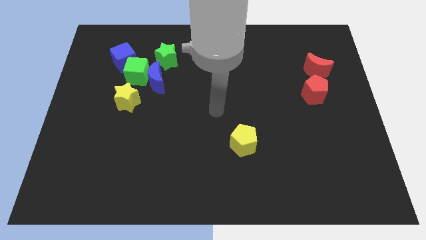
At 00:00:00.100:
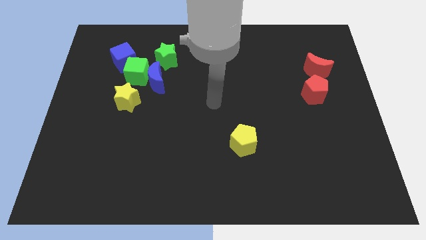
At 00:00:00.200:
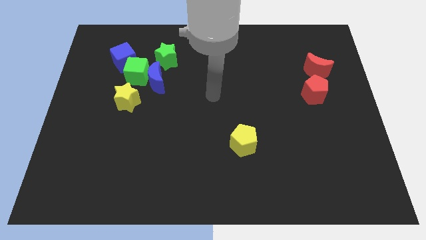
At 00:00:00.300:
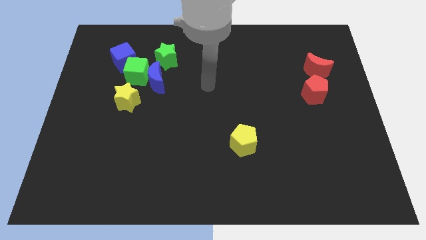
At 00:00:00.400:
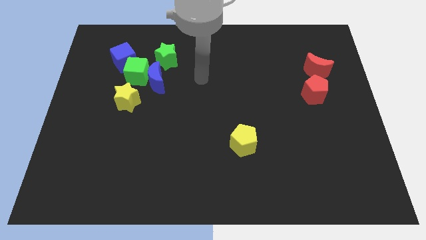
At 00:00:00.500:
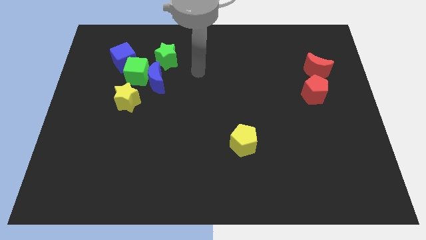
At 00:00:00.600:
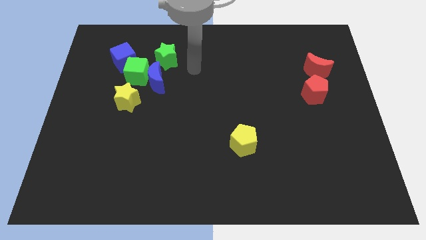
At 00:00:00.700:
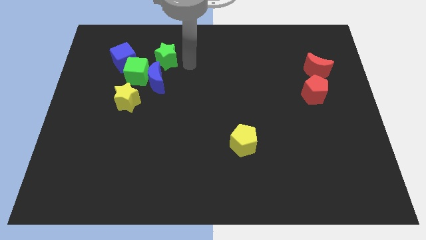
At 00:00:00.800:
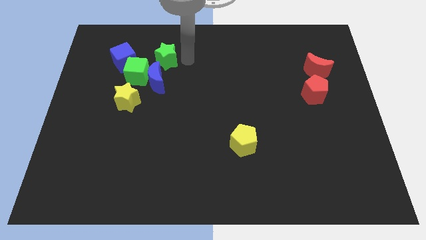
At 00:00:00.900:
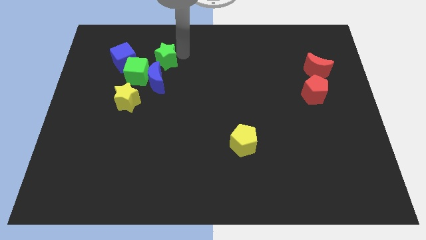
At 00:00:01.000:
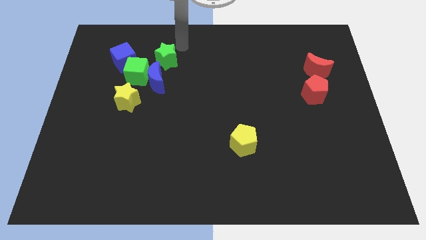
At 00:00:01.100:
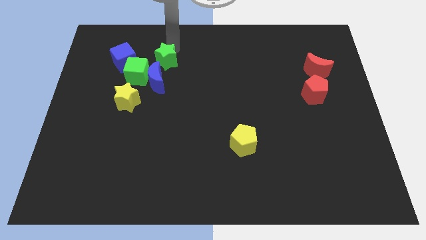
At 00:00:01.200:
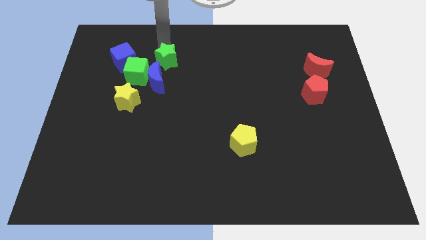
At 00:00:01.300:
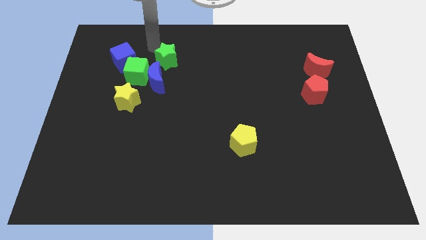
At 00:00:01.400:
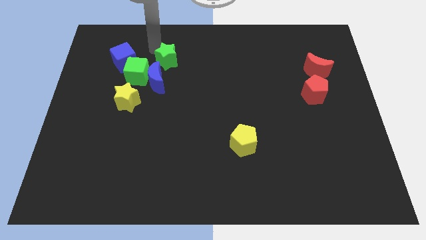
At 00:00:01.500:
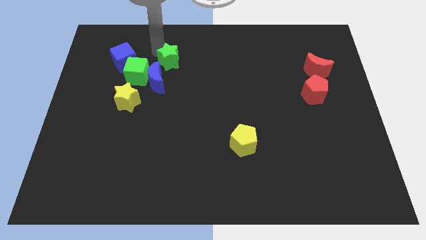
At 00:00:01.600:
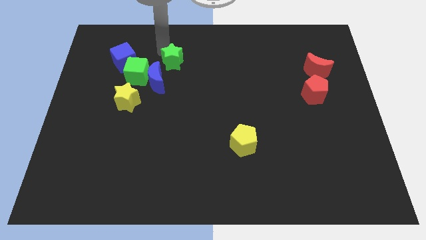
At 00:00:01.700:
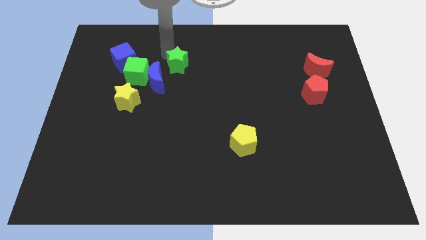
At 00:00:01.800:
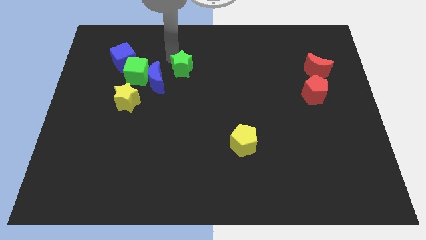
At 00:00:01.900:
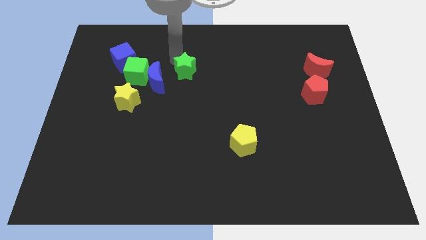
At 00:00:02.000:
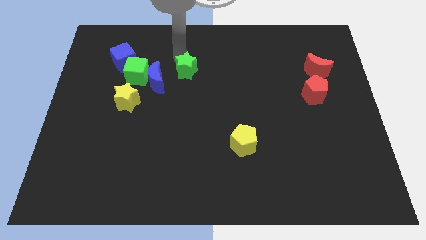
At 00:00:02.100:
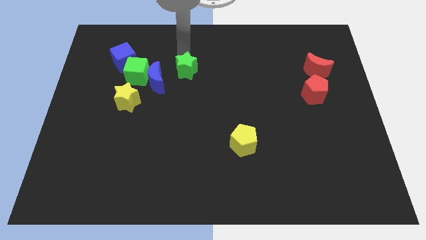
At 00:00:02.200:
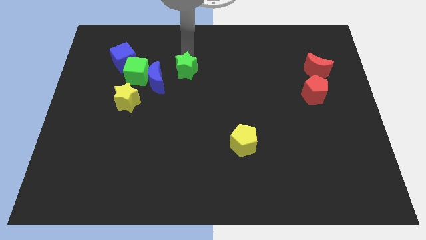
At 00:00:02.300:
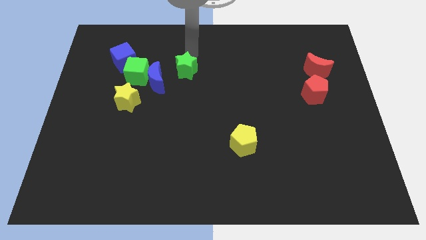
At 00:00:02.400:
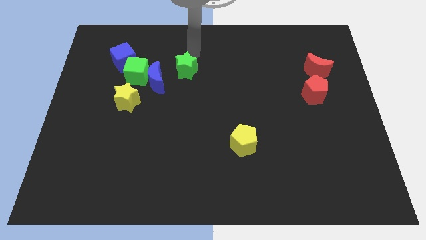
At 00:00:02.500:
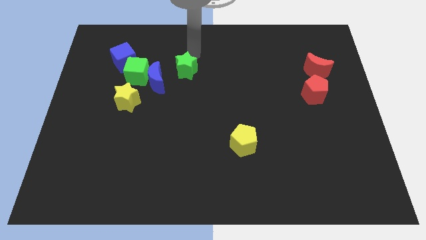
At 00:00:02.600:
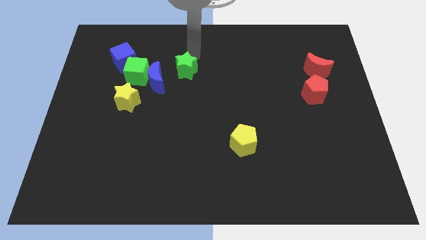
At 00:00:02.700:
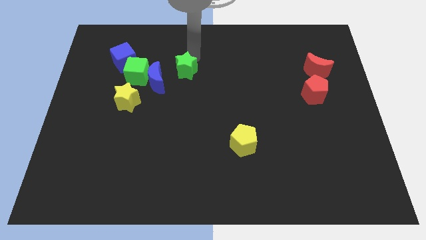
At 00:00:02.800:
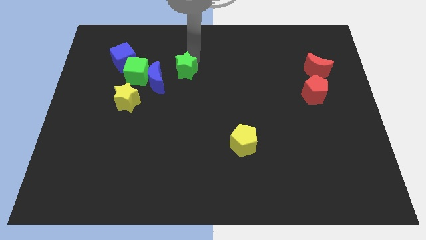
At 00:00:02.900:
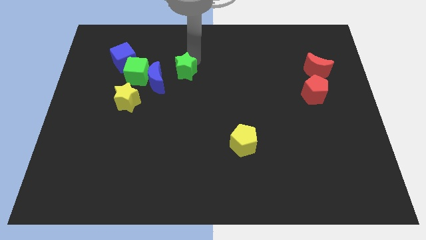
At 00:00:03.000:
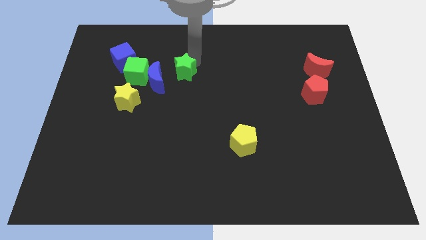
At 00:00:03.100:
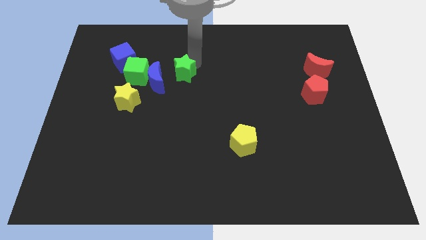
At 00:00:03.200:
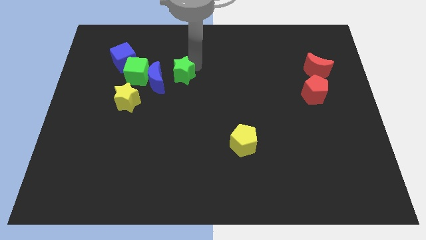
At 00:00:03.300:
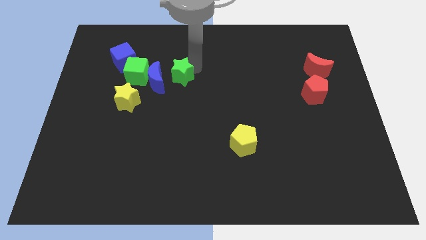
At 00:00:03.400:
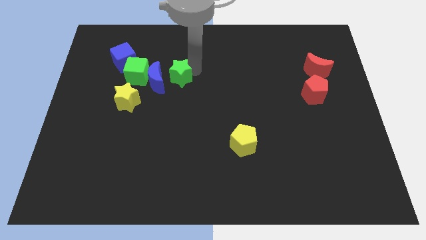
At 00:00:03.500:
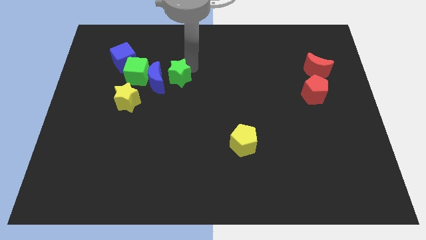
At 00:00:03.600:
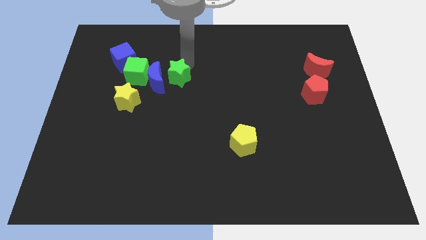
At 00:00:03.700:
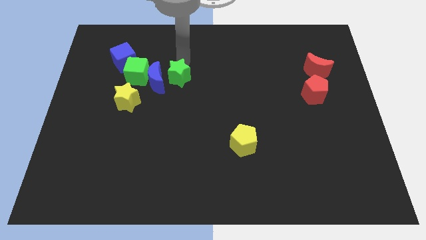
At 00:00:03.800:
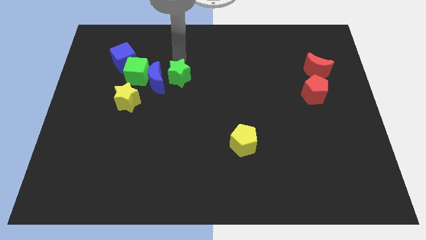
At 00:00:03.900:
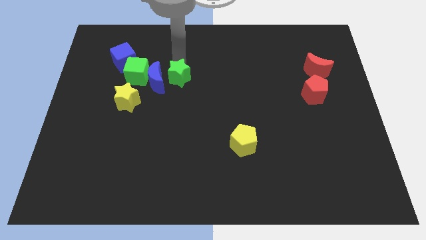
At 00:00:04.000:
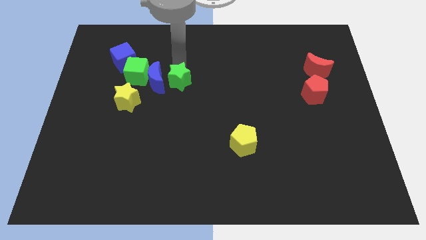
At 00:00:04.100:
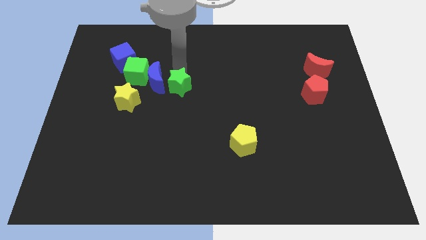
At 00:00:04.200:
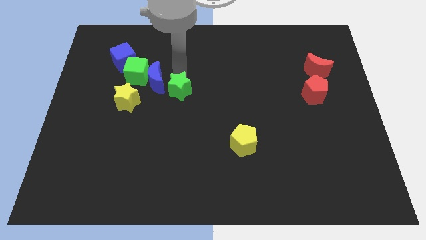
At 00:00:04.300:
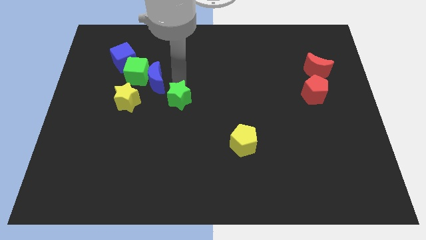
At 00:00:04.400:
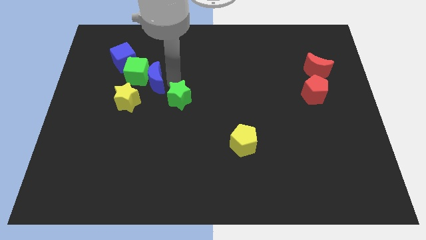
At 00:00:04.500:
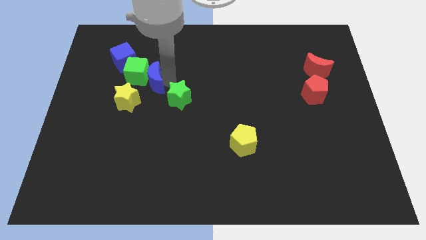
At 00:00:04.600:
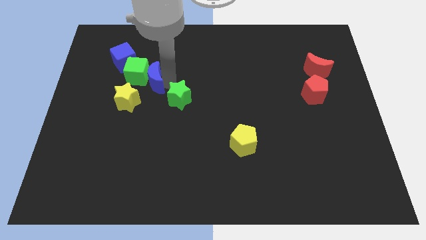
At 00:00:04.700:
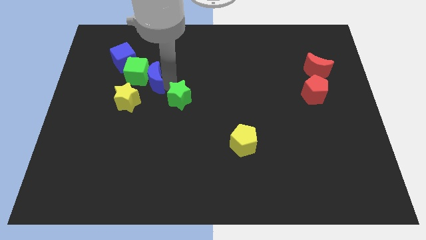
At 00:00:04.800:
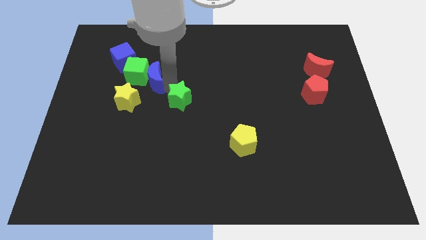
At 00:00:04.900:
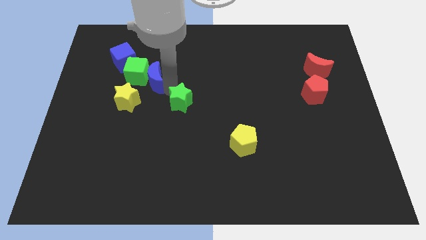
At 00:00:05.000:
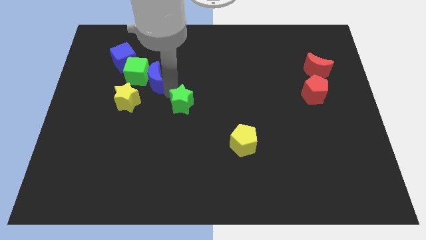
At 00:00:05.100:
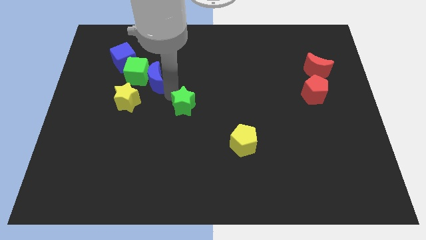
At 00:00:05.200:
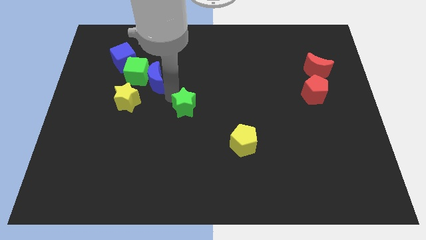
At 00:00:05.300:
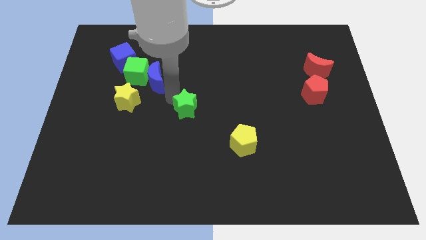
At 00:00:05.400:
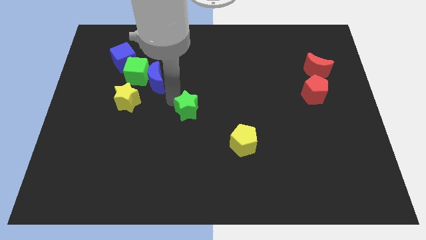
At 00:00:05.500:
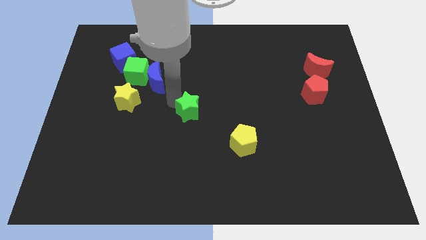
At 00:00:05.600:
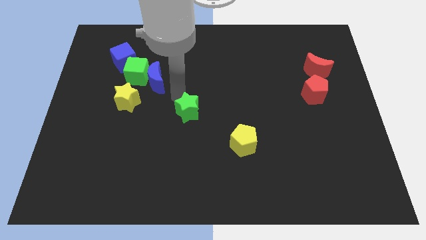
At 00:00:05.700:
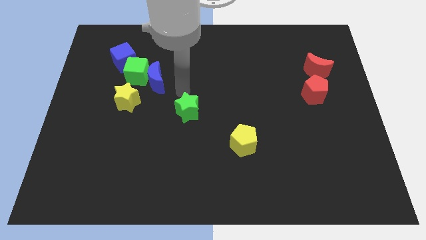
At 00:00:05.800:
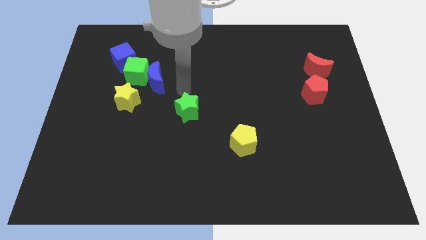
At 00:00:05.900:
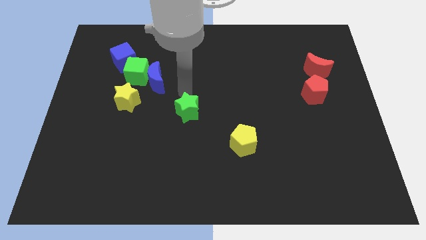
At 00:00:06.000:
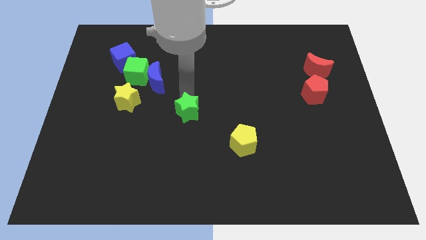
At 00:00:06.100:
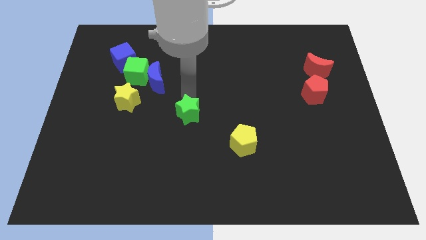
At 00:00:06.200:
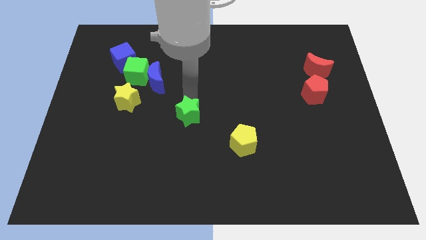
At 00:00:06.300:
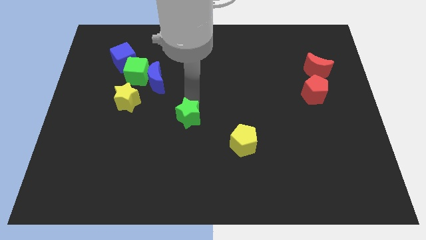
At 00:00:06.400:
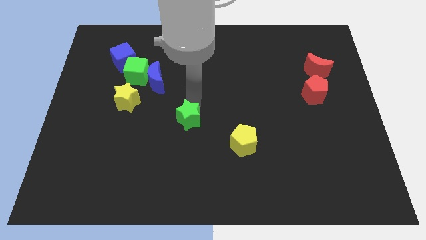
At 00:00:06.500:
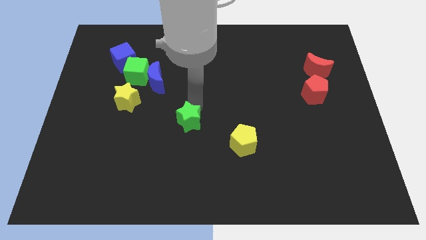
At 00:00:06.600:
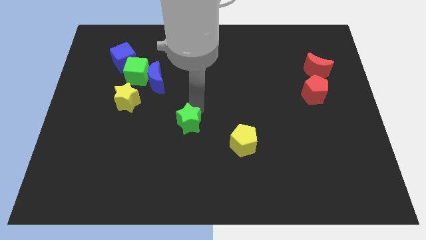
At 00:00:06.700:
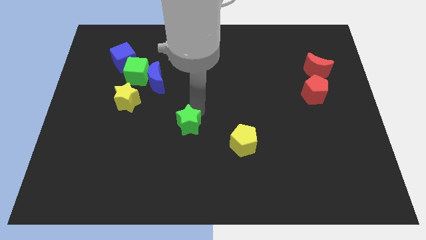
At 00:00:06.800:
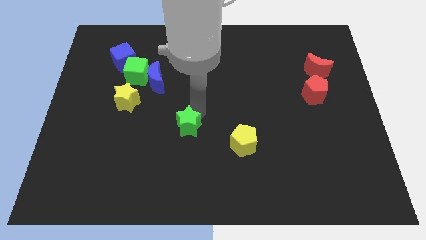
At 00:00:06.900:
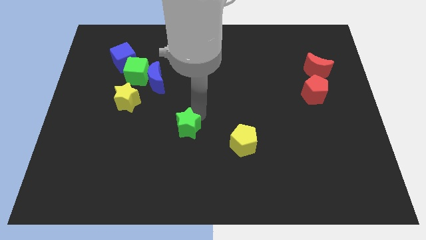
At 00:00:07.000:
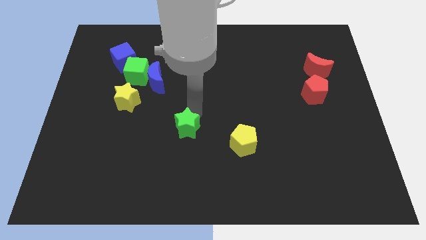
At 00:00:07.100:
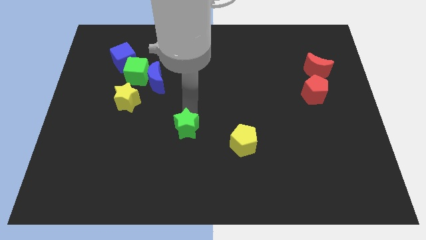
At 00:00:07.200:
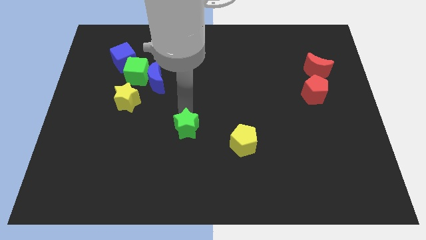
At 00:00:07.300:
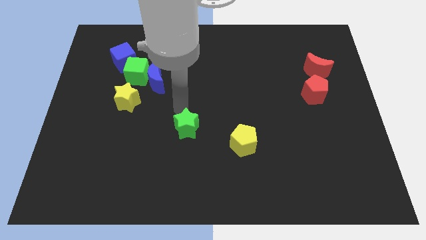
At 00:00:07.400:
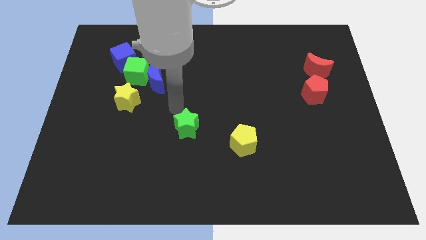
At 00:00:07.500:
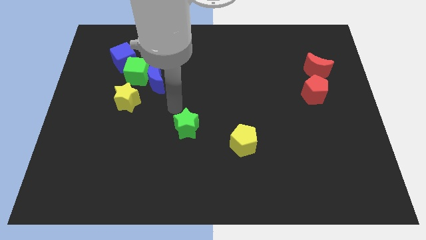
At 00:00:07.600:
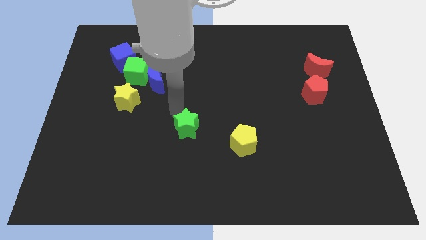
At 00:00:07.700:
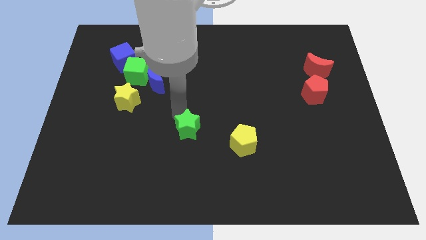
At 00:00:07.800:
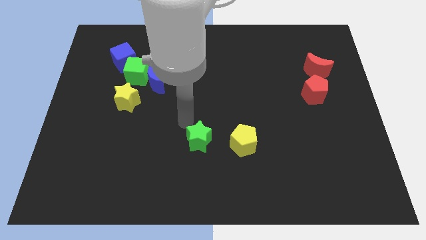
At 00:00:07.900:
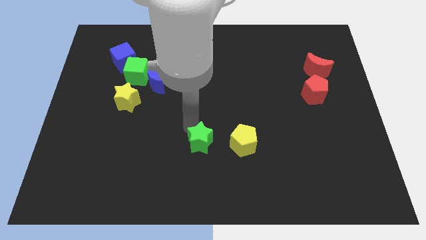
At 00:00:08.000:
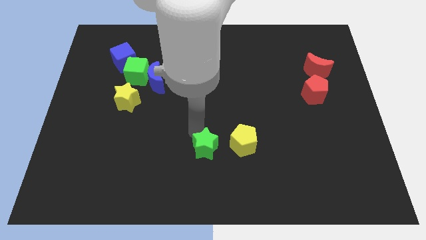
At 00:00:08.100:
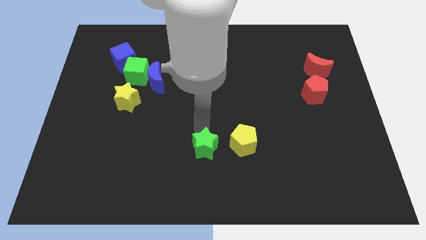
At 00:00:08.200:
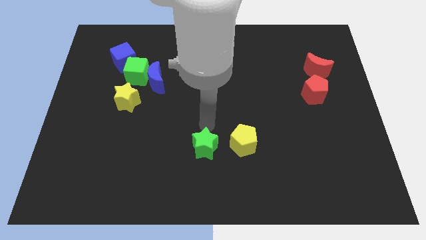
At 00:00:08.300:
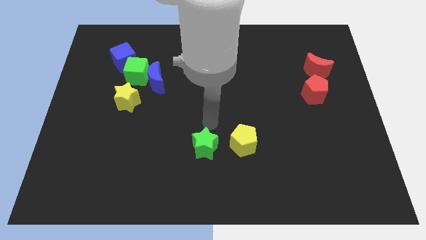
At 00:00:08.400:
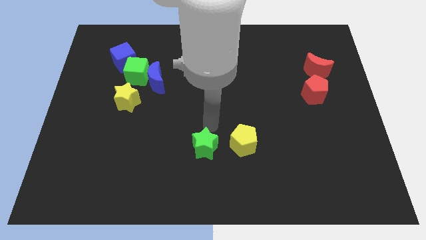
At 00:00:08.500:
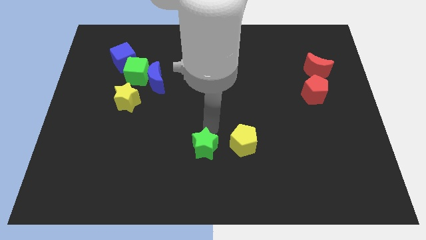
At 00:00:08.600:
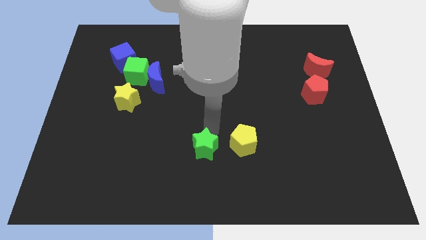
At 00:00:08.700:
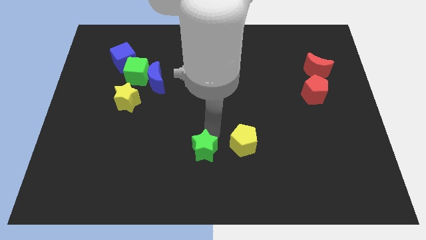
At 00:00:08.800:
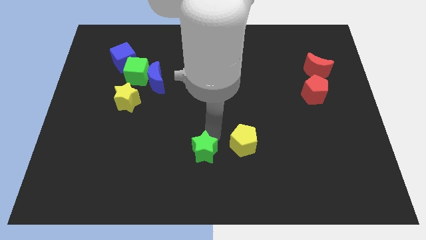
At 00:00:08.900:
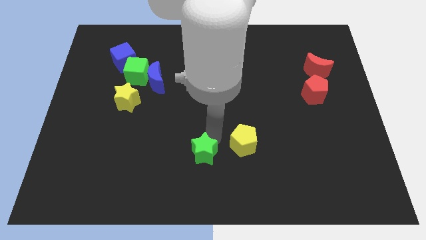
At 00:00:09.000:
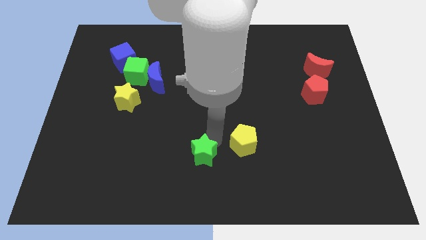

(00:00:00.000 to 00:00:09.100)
put the green star to the bottom side
